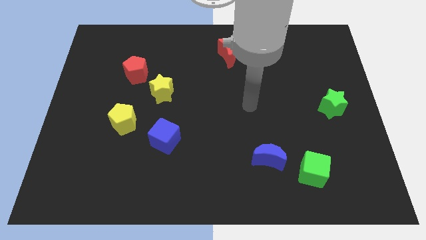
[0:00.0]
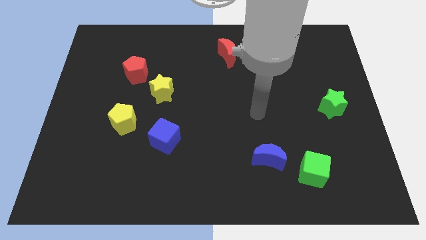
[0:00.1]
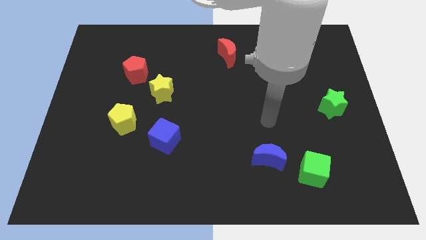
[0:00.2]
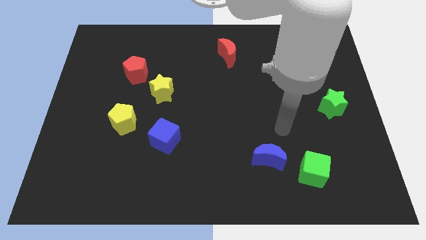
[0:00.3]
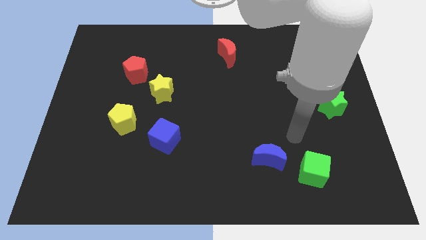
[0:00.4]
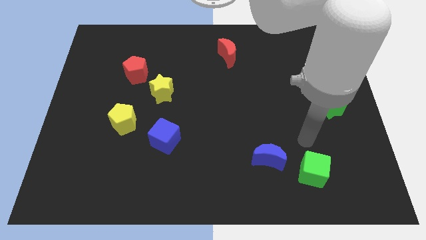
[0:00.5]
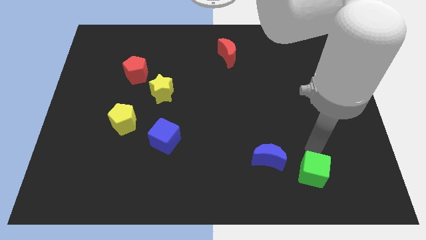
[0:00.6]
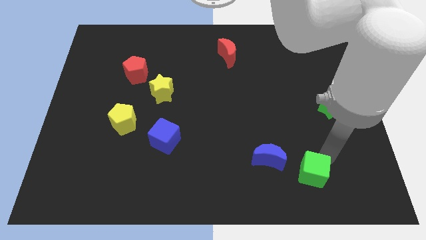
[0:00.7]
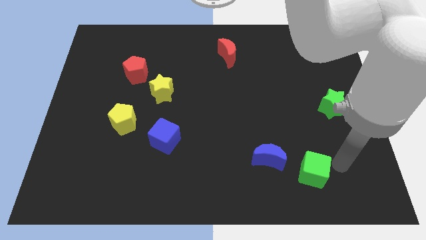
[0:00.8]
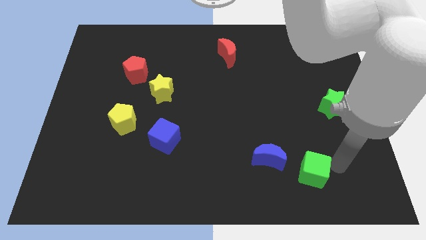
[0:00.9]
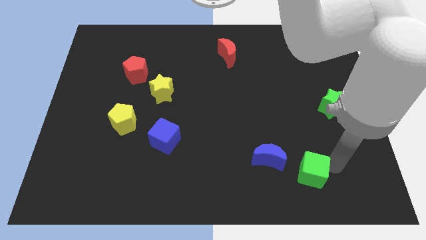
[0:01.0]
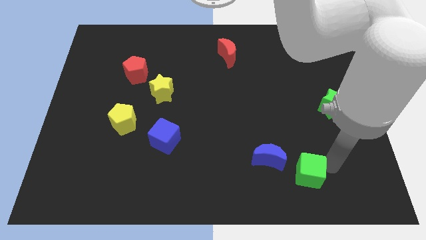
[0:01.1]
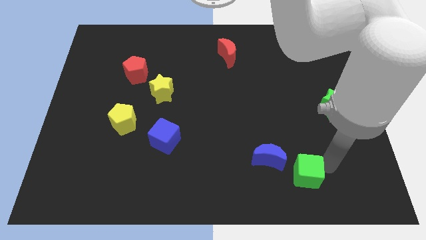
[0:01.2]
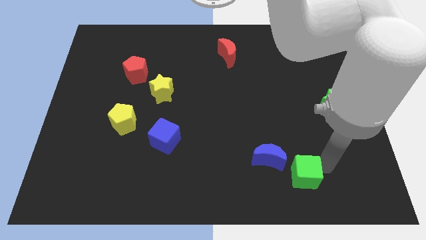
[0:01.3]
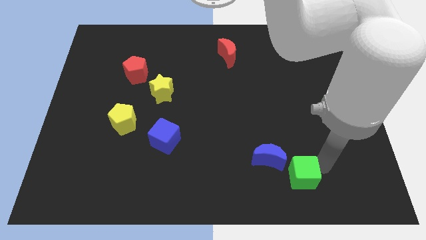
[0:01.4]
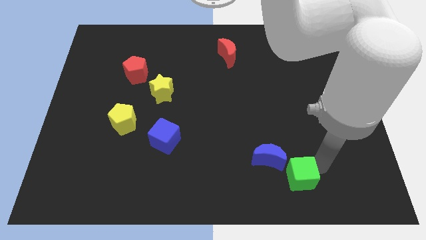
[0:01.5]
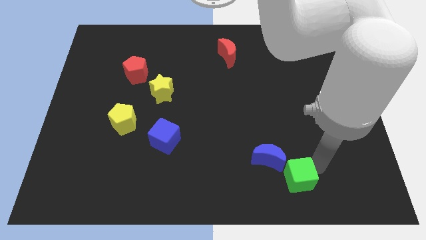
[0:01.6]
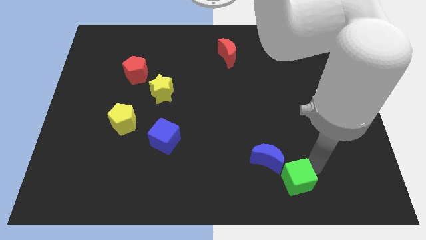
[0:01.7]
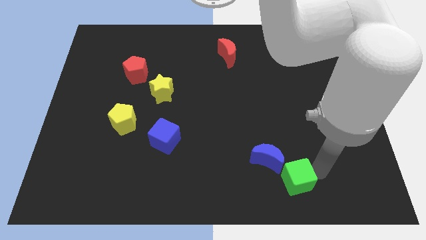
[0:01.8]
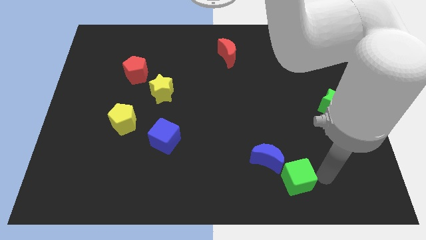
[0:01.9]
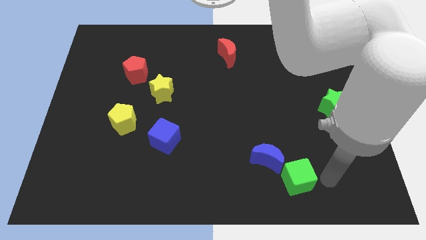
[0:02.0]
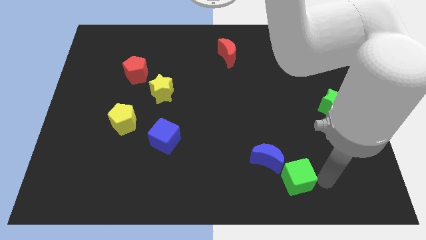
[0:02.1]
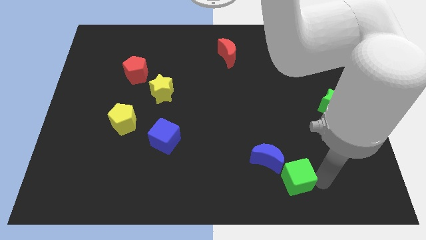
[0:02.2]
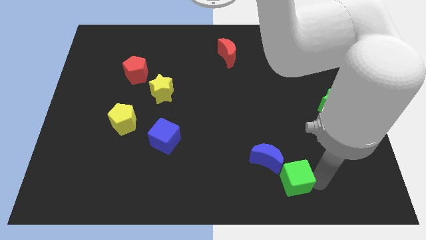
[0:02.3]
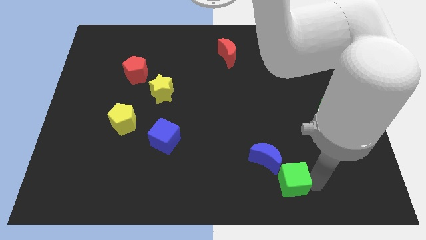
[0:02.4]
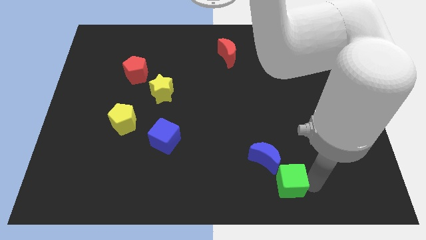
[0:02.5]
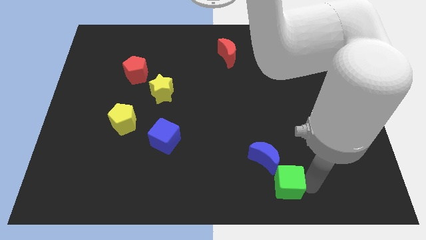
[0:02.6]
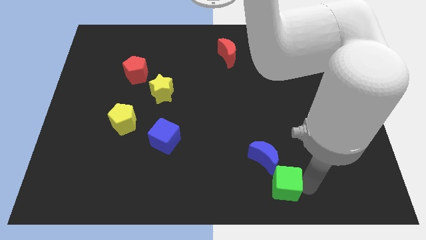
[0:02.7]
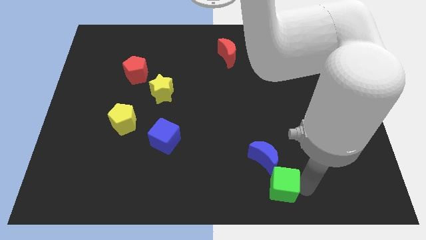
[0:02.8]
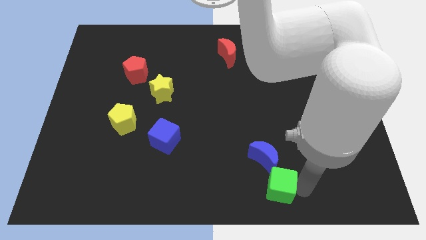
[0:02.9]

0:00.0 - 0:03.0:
move the green cube left a bit

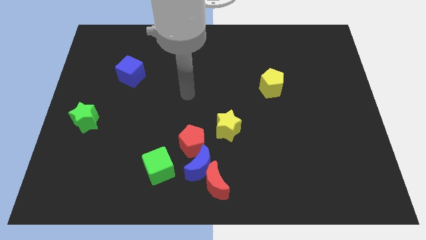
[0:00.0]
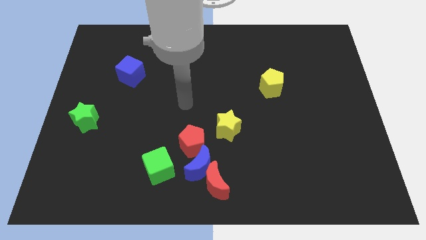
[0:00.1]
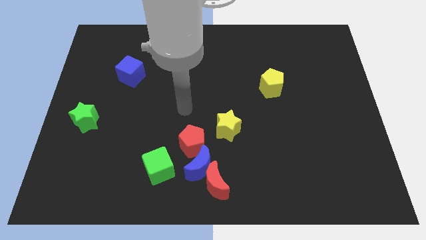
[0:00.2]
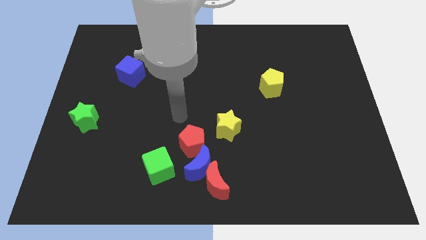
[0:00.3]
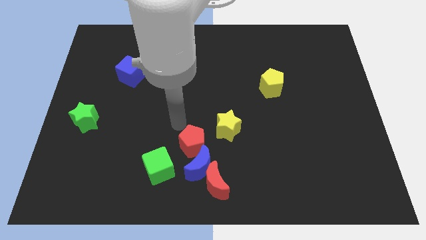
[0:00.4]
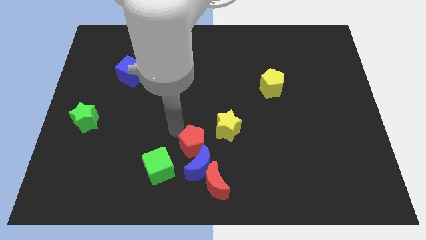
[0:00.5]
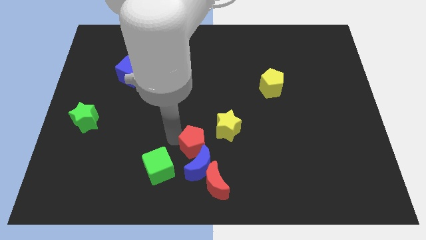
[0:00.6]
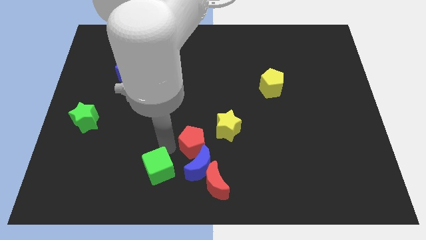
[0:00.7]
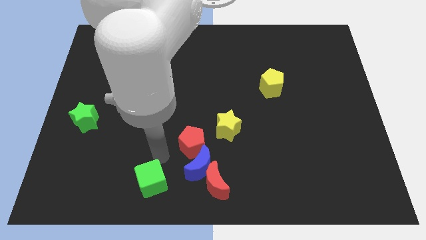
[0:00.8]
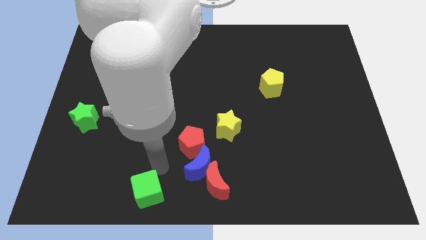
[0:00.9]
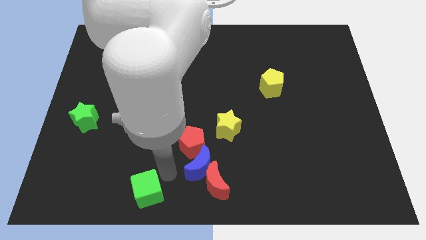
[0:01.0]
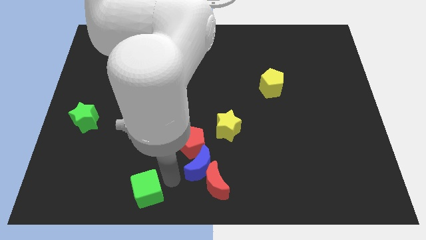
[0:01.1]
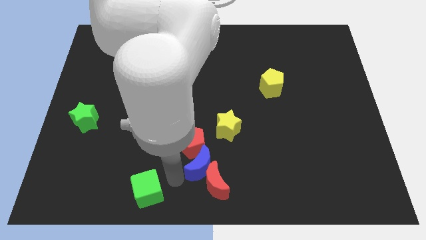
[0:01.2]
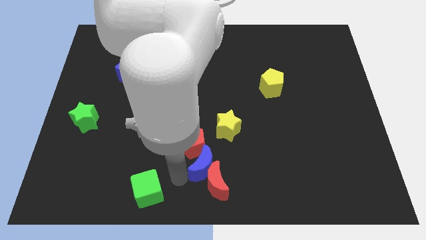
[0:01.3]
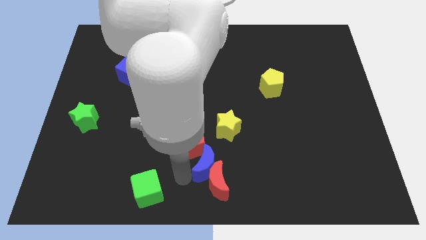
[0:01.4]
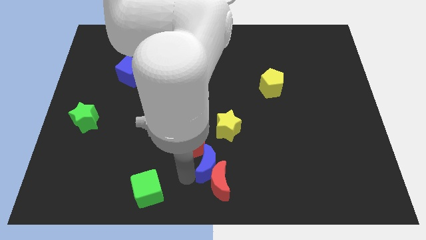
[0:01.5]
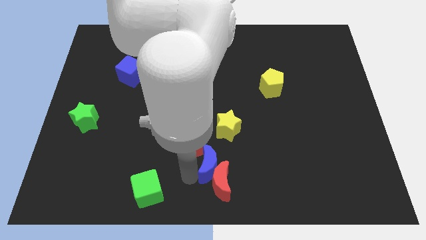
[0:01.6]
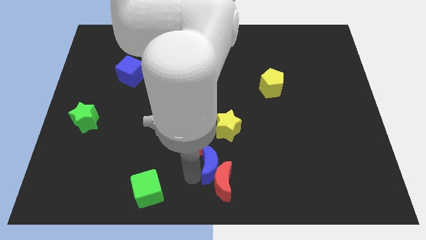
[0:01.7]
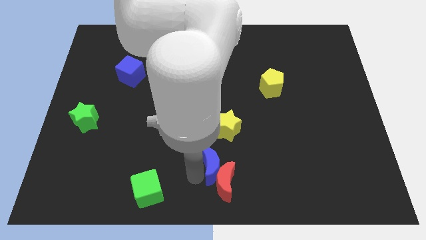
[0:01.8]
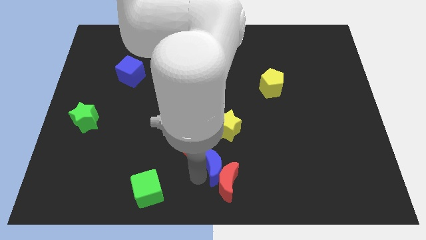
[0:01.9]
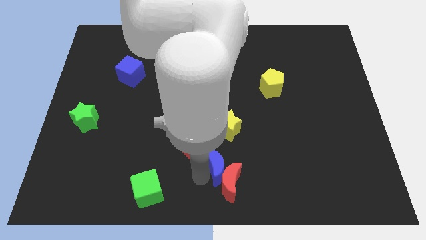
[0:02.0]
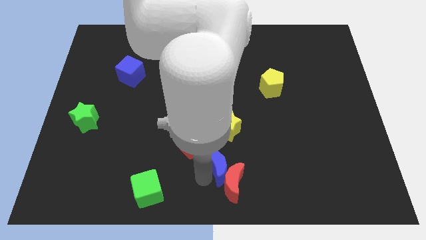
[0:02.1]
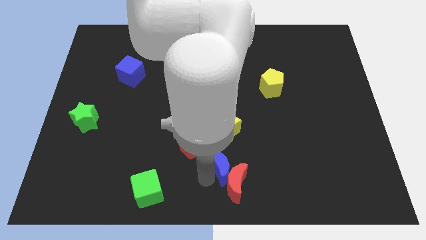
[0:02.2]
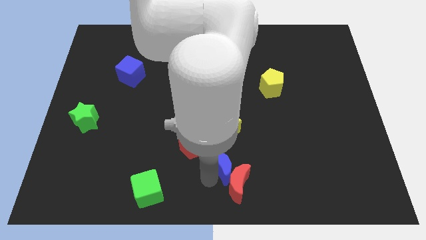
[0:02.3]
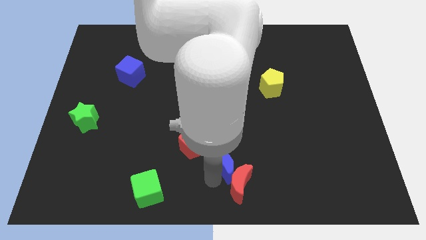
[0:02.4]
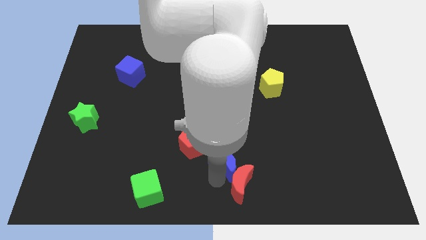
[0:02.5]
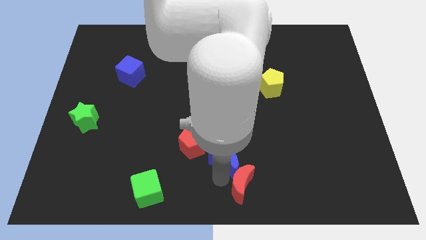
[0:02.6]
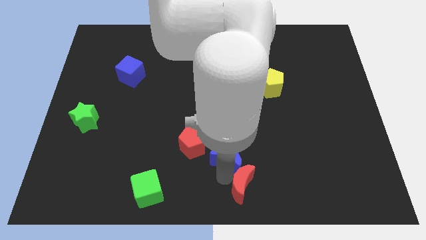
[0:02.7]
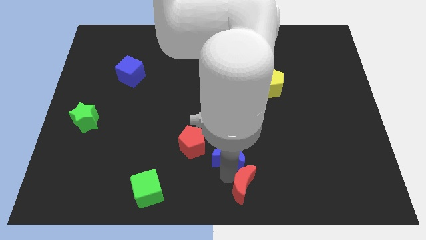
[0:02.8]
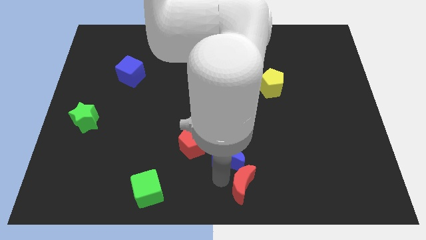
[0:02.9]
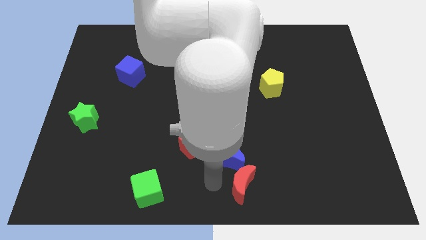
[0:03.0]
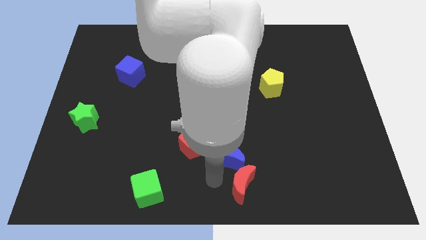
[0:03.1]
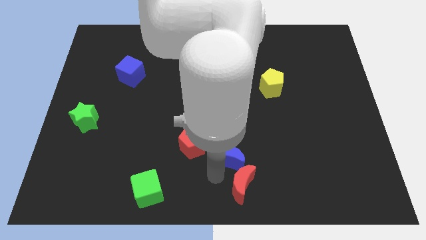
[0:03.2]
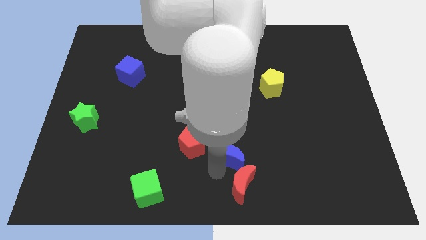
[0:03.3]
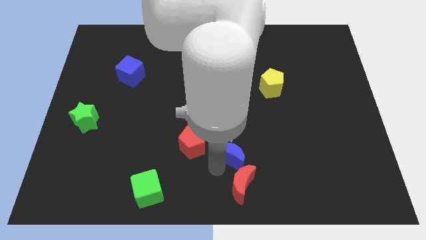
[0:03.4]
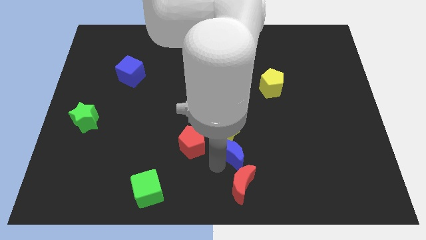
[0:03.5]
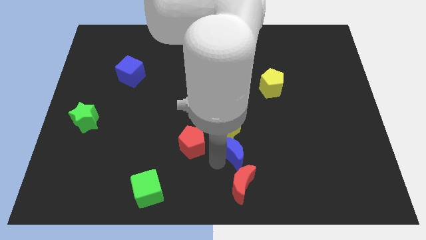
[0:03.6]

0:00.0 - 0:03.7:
push the blue moon diagonally up and to the right a little

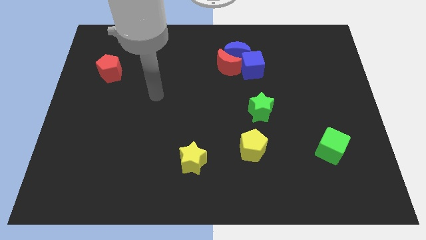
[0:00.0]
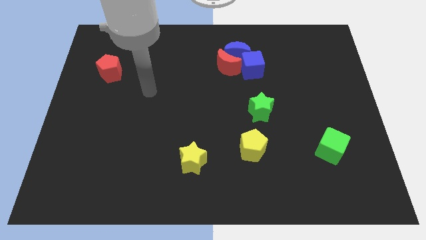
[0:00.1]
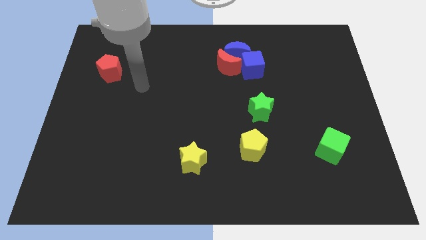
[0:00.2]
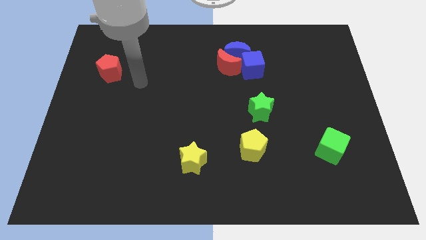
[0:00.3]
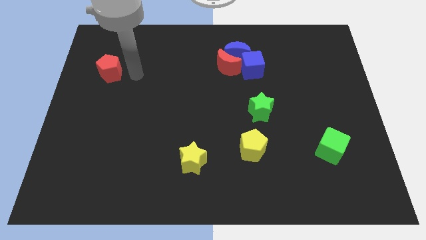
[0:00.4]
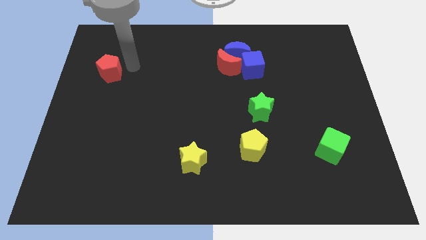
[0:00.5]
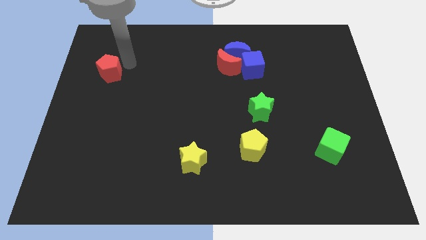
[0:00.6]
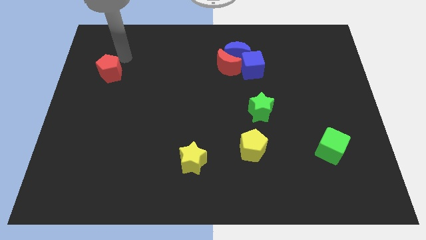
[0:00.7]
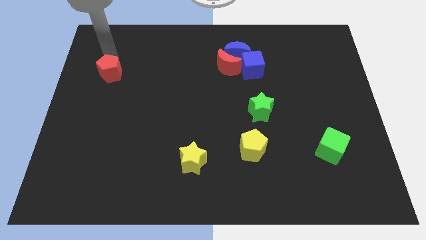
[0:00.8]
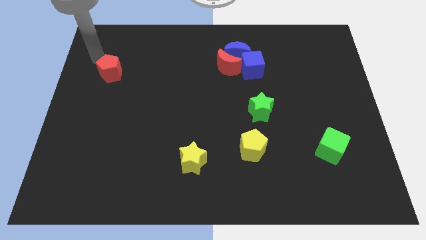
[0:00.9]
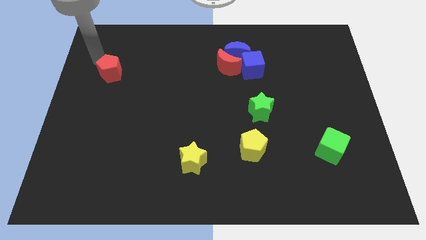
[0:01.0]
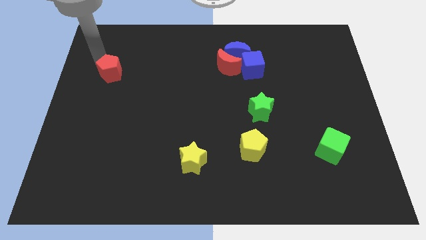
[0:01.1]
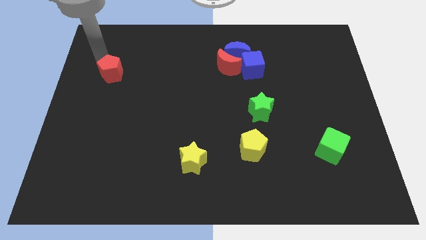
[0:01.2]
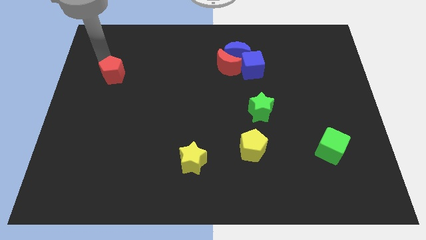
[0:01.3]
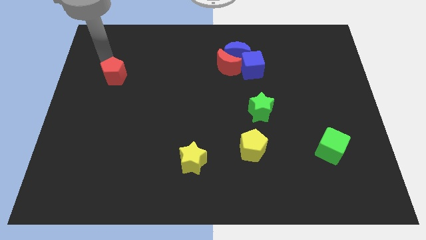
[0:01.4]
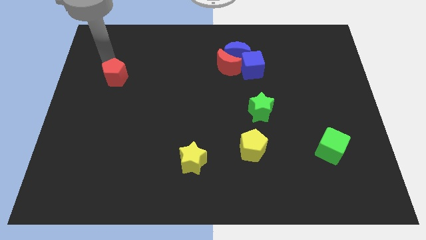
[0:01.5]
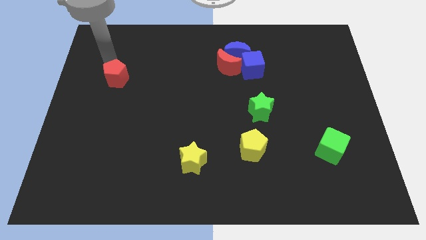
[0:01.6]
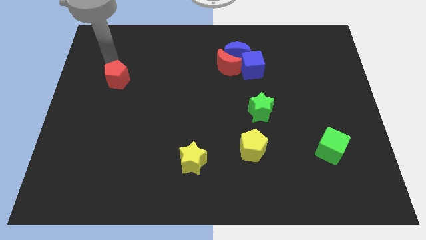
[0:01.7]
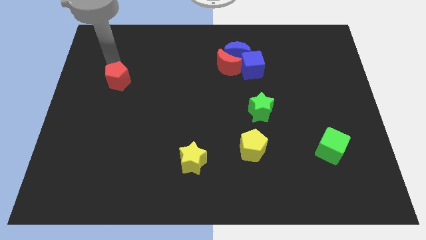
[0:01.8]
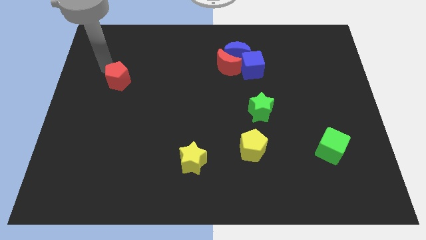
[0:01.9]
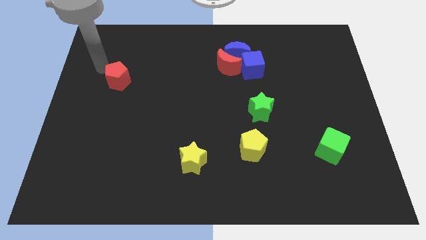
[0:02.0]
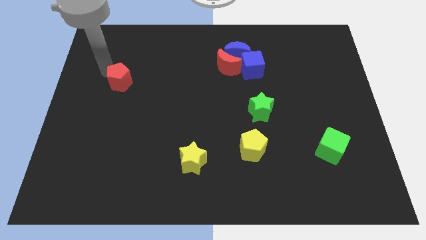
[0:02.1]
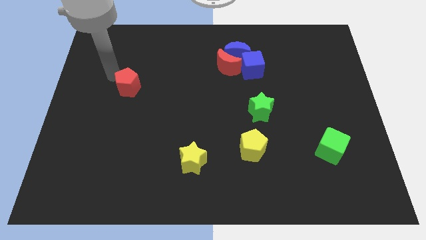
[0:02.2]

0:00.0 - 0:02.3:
slide the red pentagon a little bit diagonally down and to the right

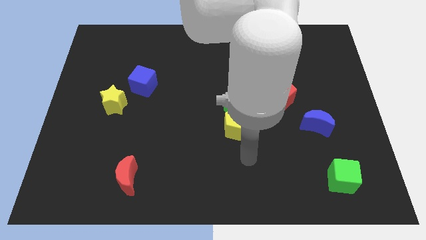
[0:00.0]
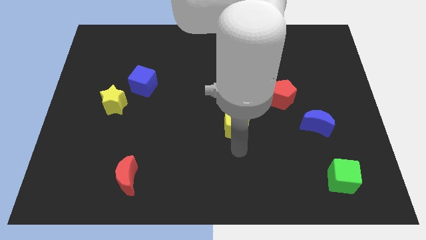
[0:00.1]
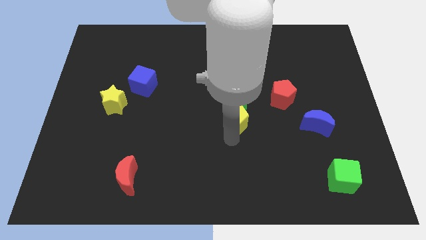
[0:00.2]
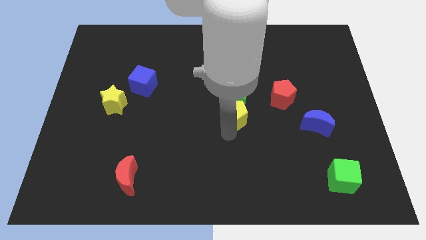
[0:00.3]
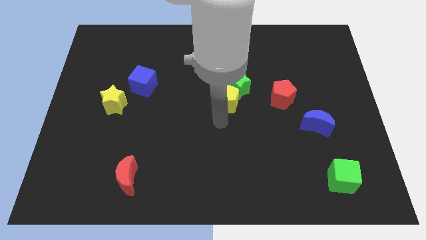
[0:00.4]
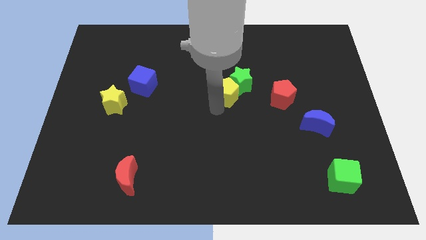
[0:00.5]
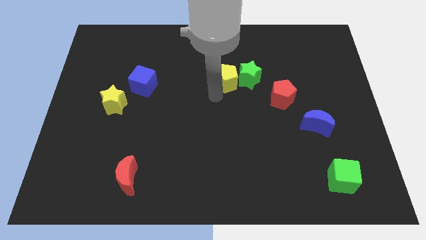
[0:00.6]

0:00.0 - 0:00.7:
slightly slide the green star up and right diagonally
